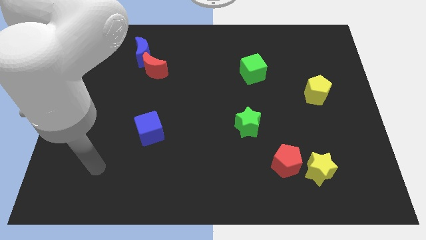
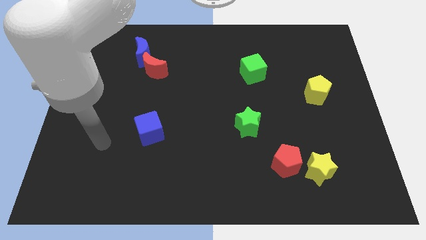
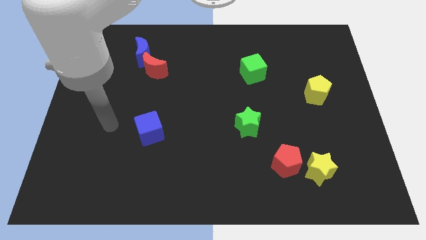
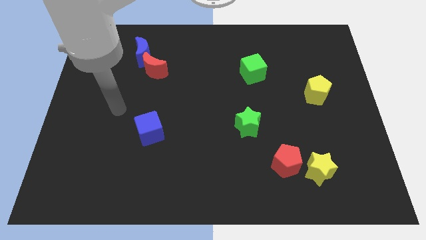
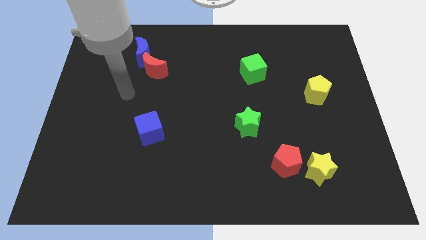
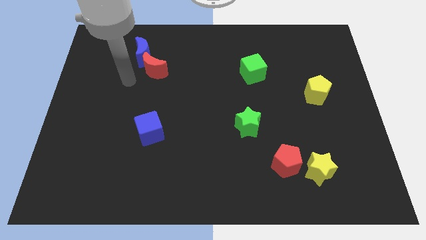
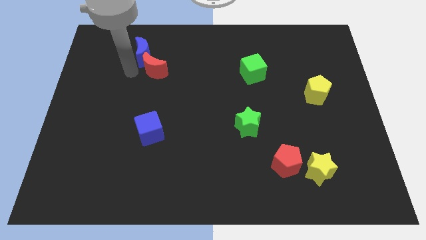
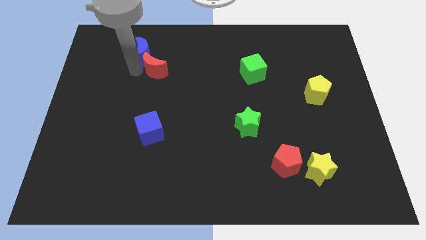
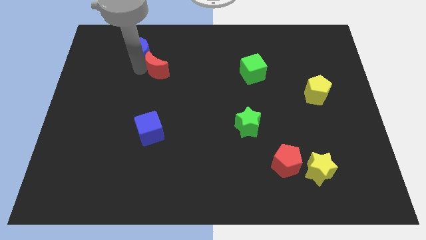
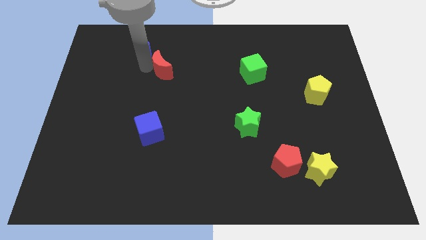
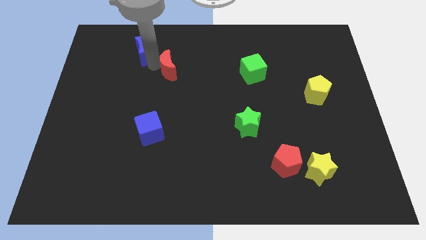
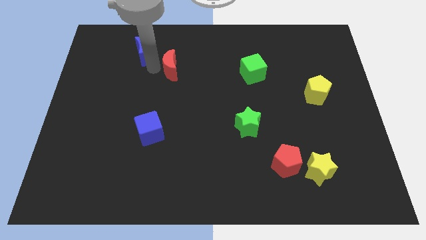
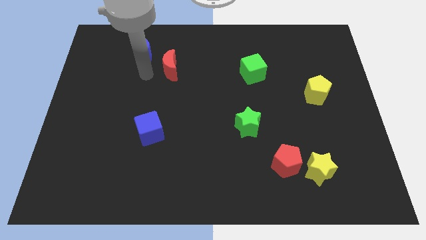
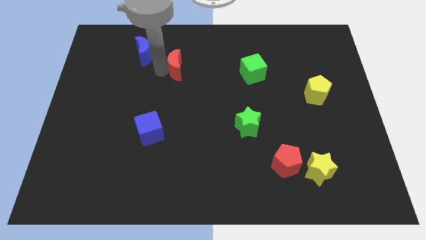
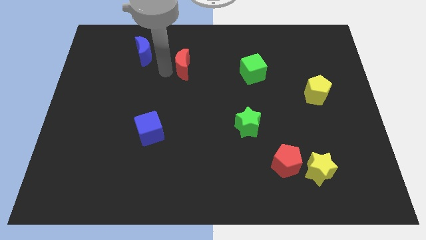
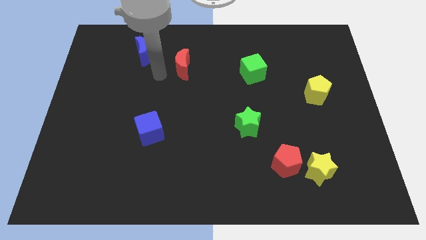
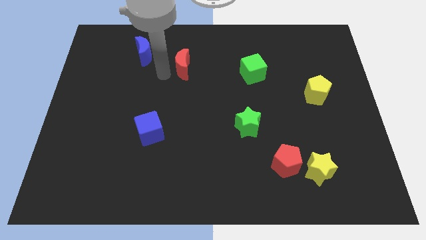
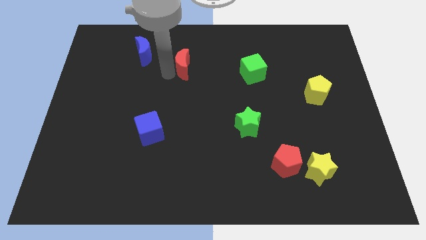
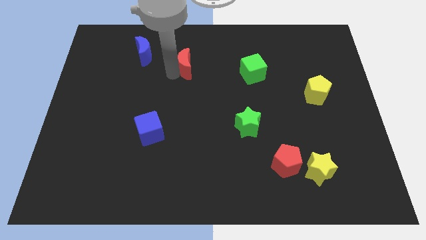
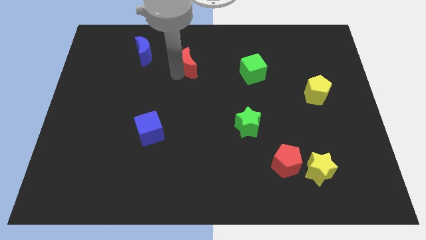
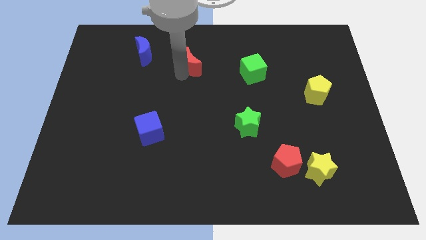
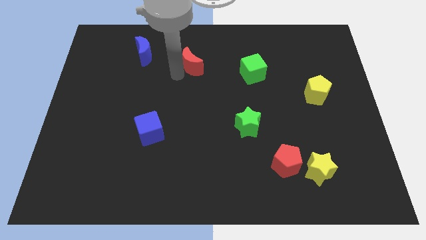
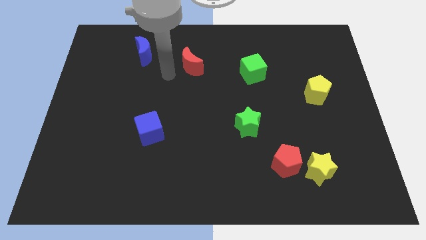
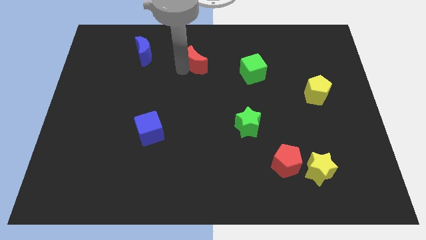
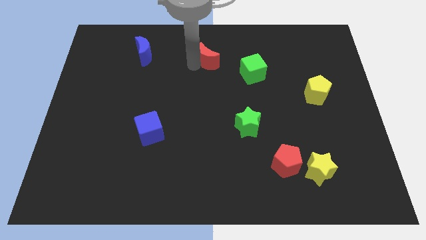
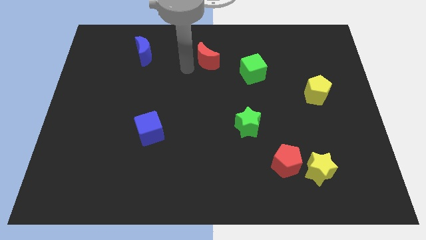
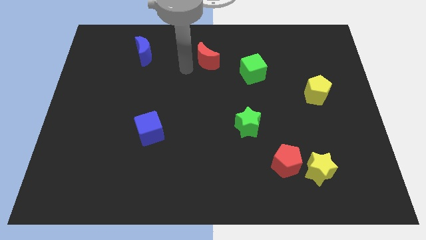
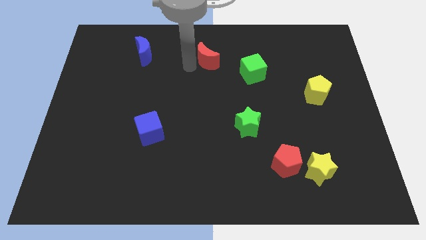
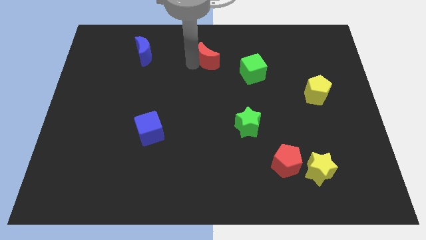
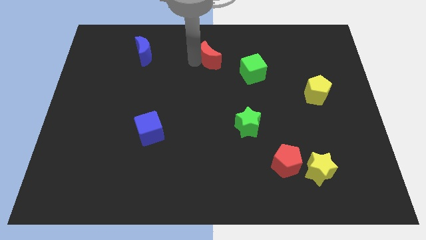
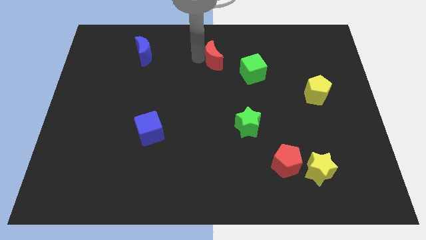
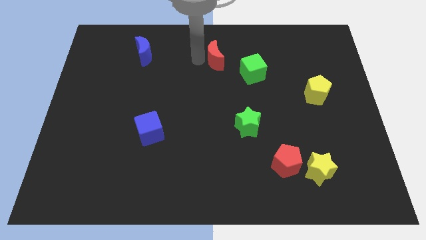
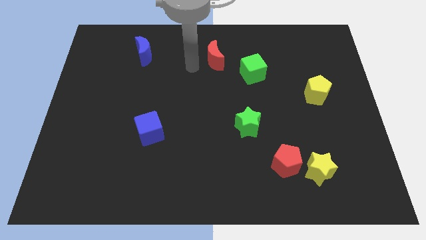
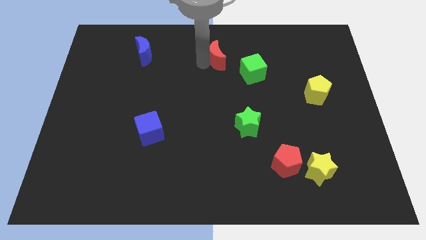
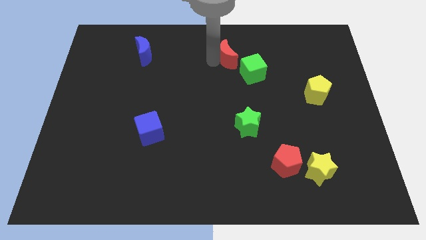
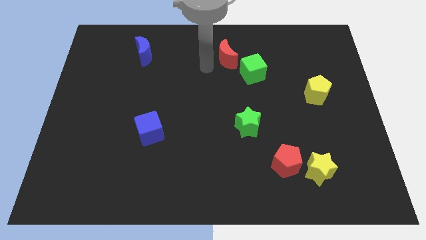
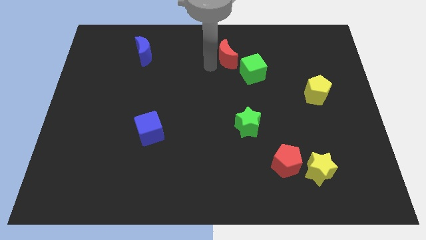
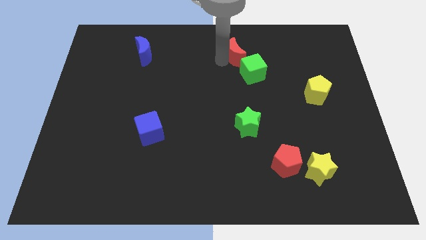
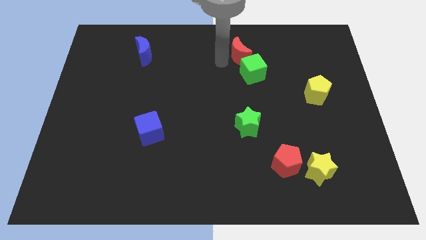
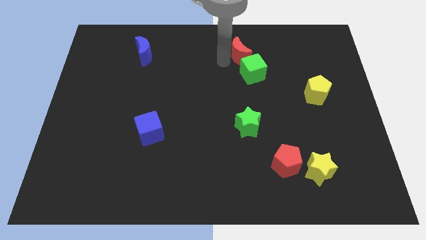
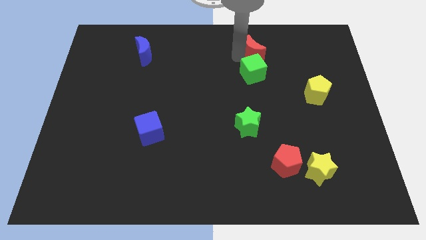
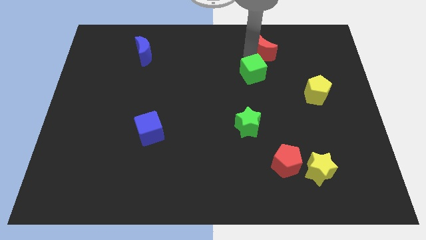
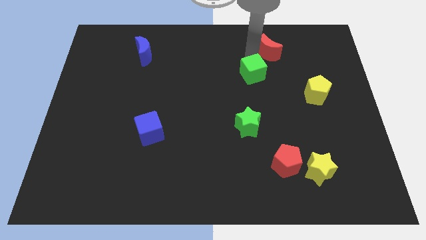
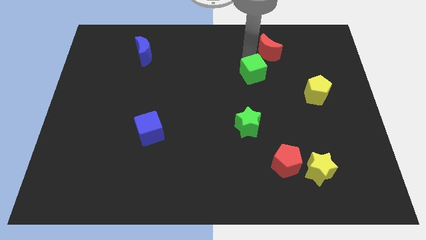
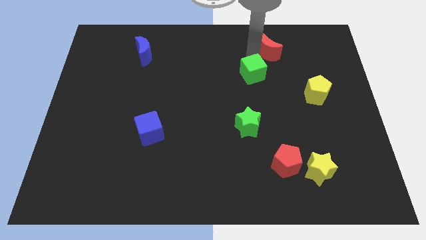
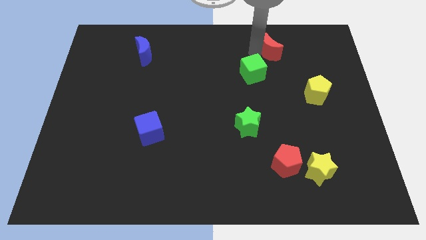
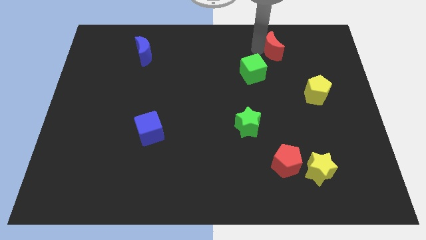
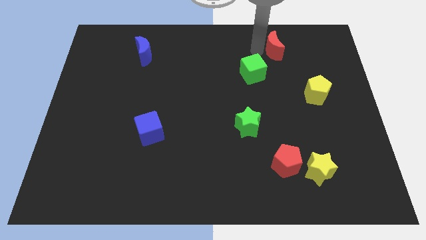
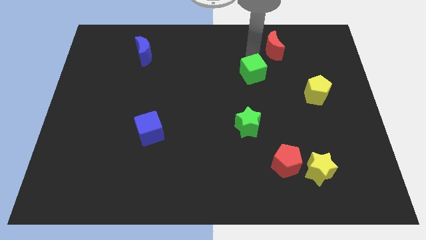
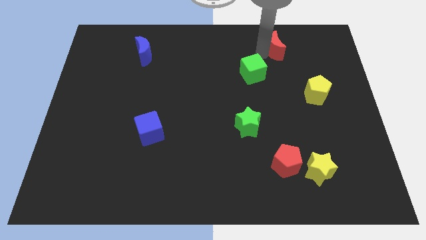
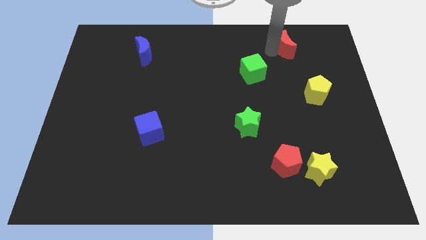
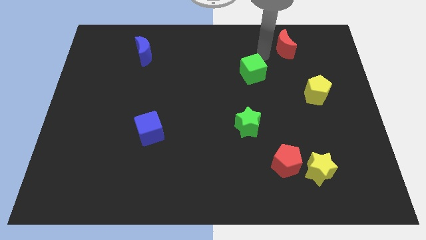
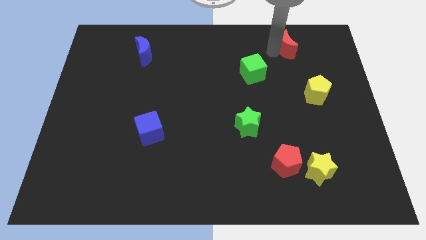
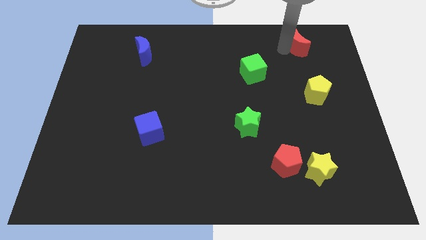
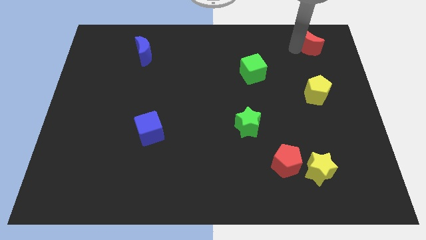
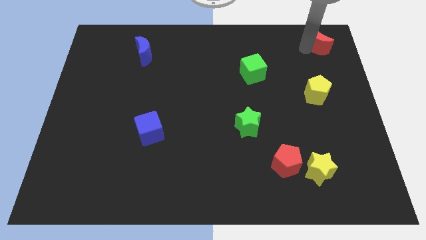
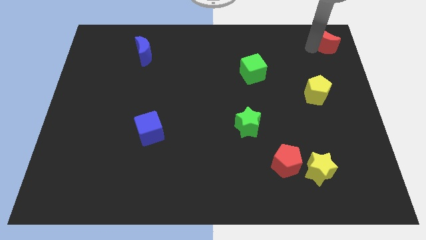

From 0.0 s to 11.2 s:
slide the red moon to the top right
